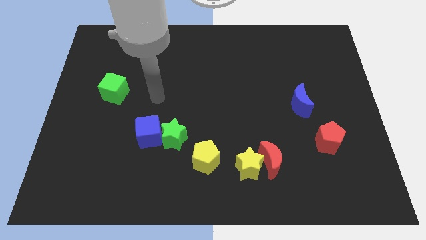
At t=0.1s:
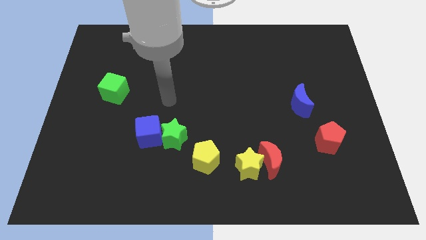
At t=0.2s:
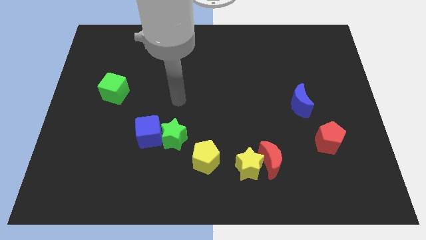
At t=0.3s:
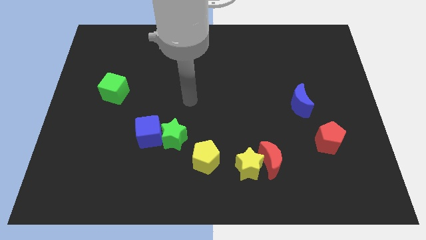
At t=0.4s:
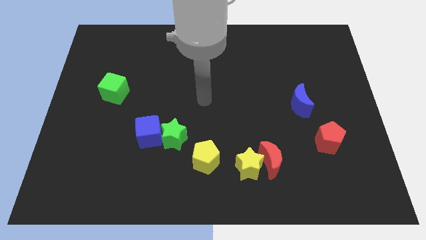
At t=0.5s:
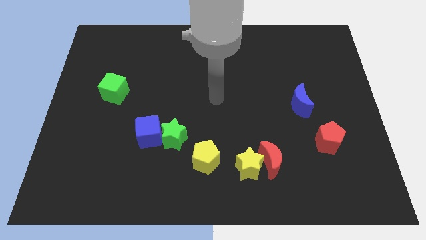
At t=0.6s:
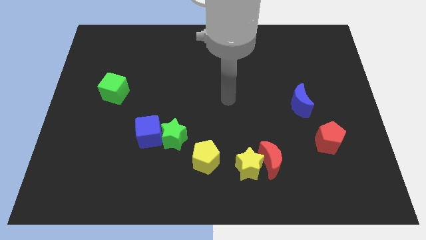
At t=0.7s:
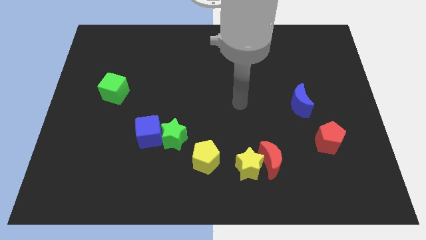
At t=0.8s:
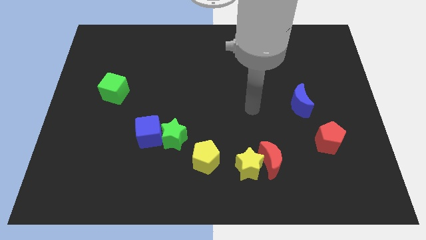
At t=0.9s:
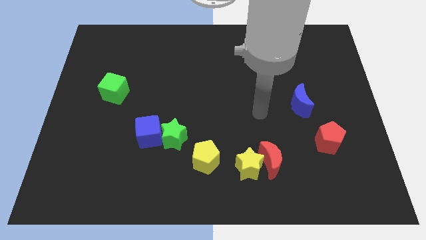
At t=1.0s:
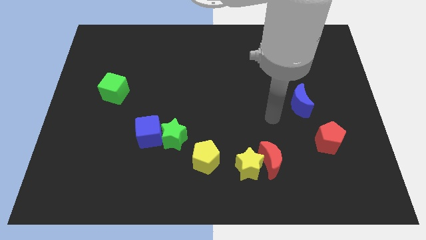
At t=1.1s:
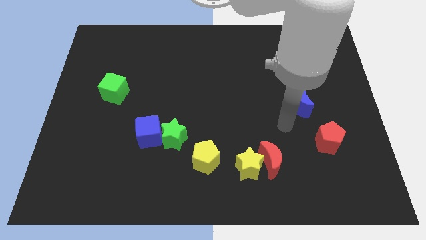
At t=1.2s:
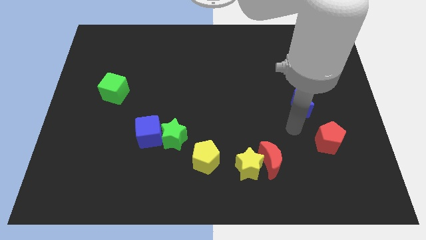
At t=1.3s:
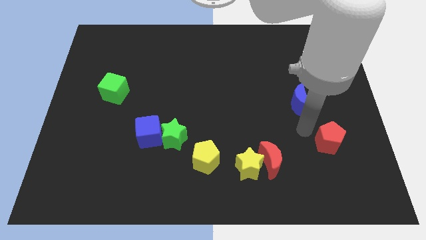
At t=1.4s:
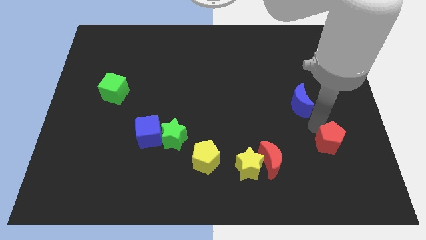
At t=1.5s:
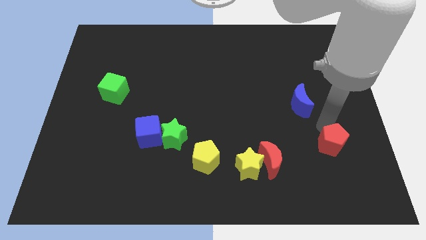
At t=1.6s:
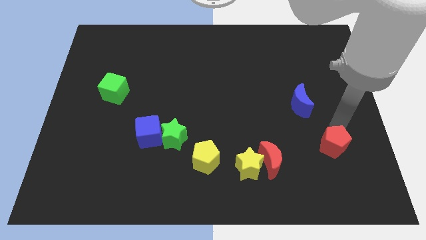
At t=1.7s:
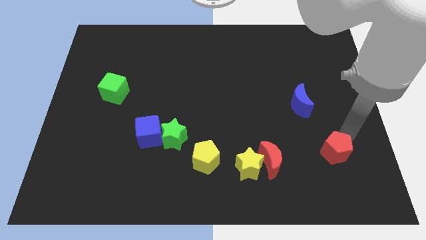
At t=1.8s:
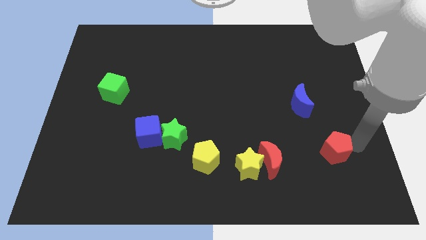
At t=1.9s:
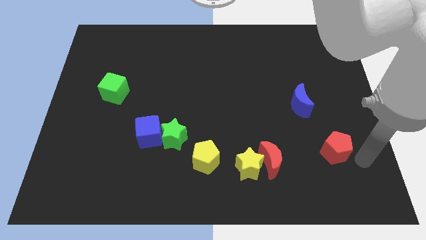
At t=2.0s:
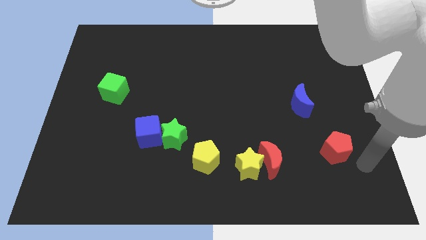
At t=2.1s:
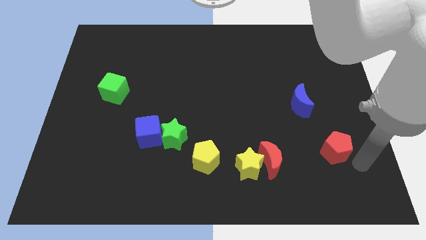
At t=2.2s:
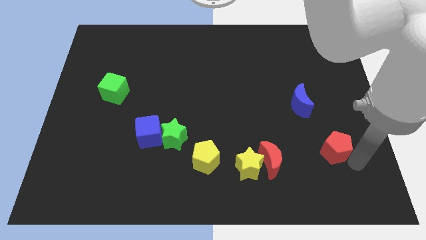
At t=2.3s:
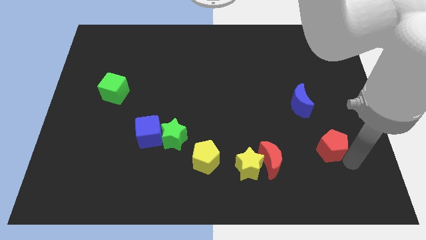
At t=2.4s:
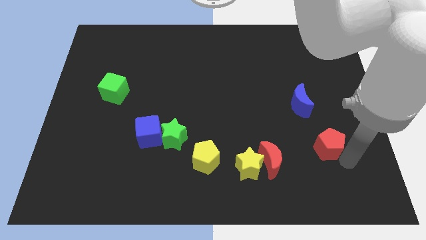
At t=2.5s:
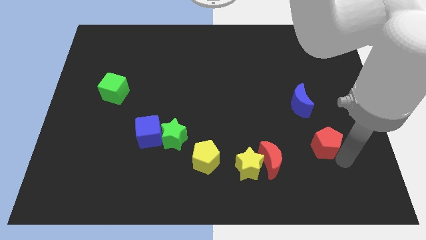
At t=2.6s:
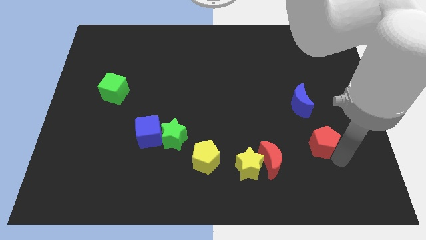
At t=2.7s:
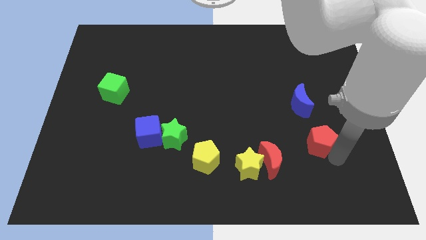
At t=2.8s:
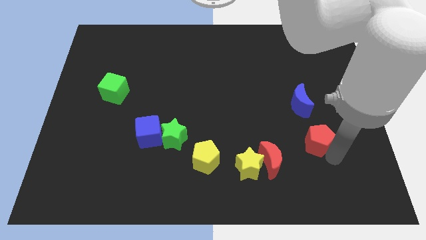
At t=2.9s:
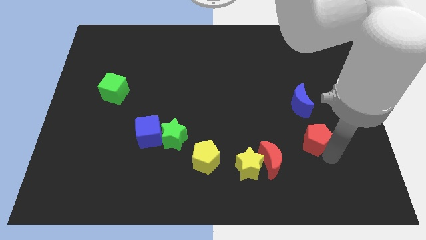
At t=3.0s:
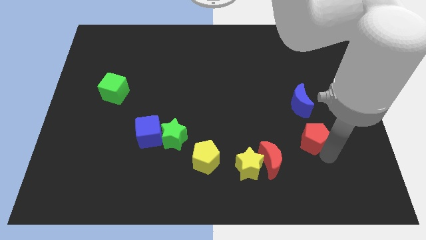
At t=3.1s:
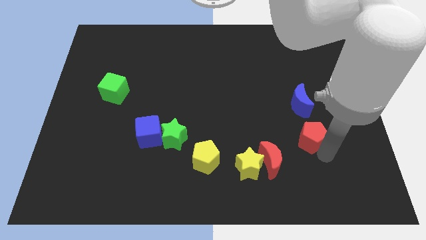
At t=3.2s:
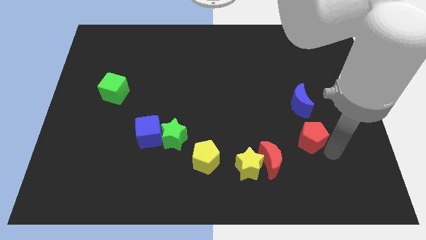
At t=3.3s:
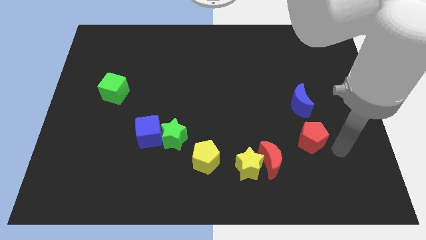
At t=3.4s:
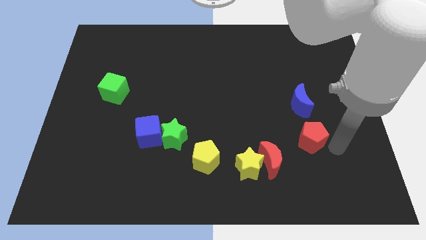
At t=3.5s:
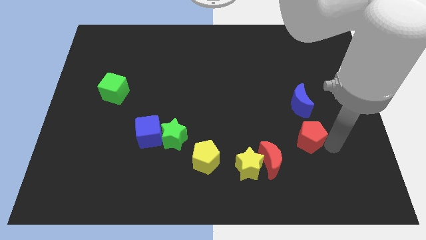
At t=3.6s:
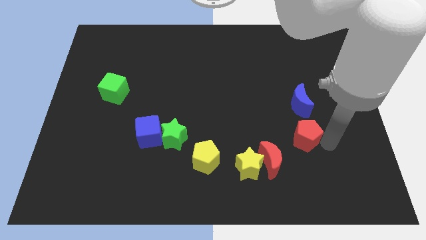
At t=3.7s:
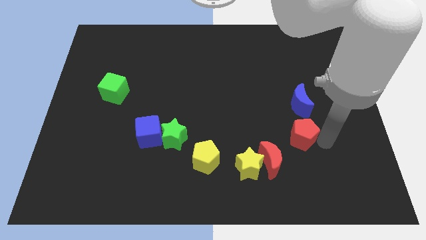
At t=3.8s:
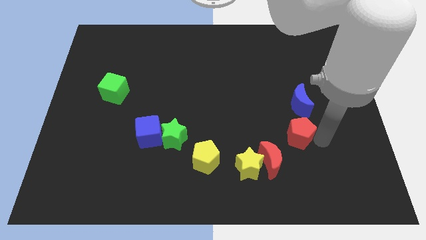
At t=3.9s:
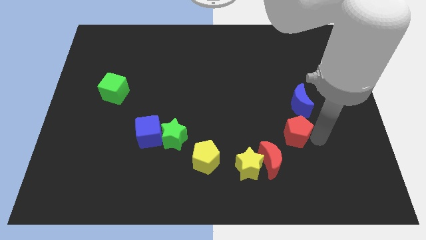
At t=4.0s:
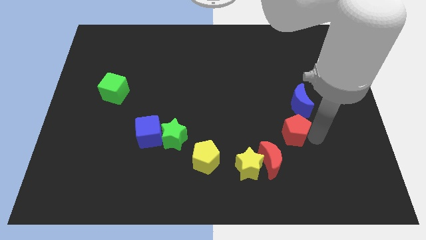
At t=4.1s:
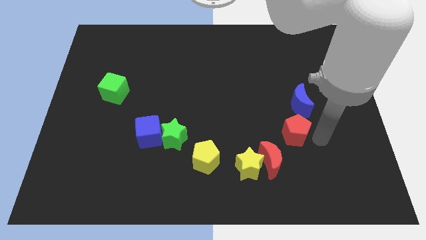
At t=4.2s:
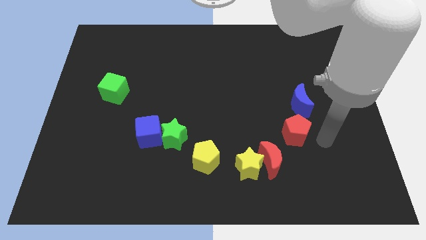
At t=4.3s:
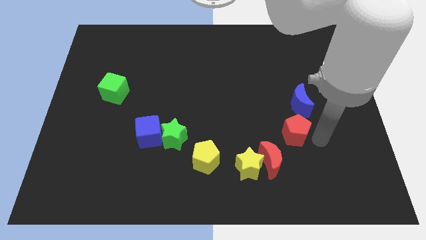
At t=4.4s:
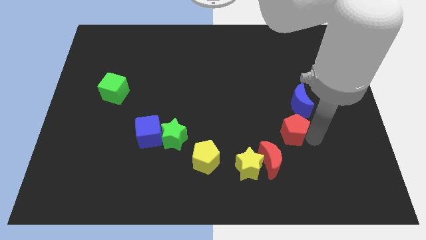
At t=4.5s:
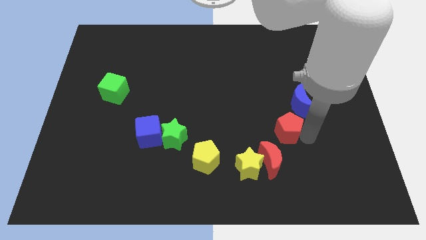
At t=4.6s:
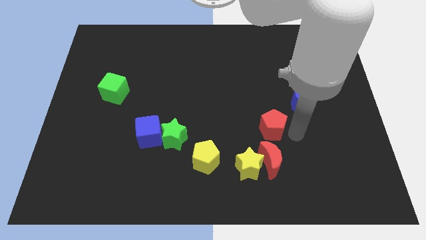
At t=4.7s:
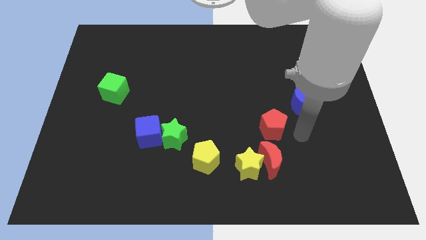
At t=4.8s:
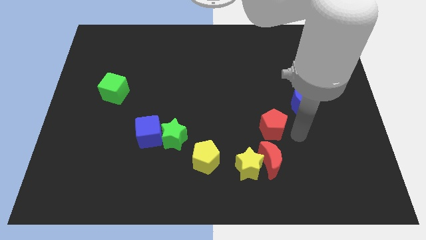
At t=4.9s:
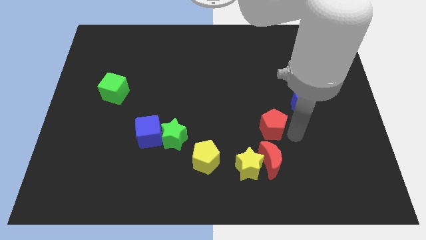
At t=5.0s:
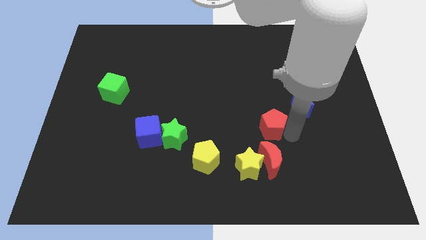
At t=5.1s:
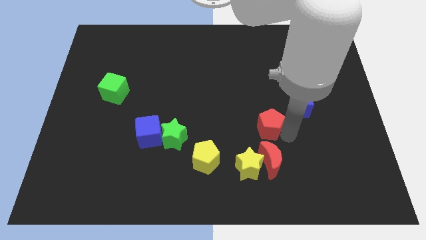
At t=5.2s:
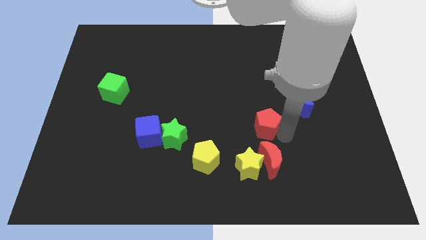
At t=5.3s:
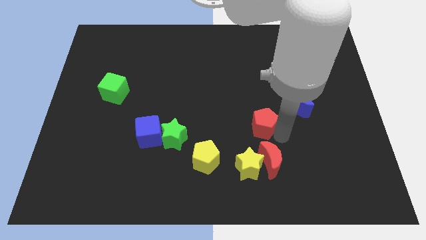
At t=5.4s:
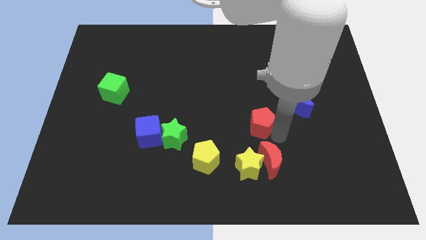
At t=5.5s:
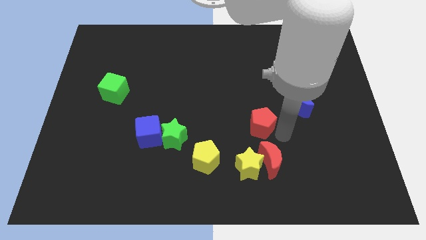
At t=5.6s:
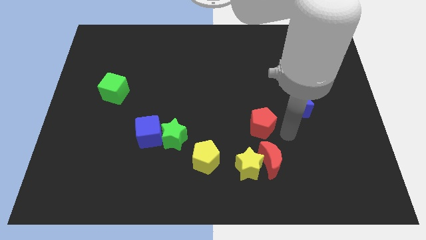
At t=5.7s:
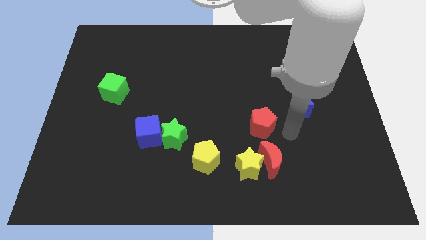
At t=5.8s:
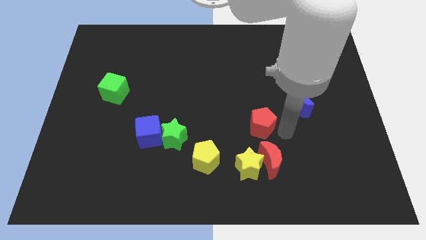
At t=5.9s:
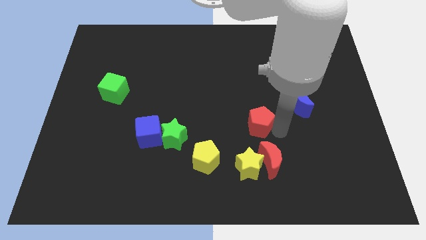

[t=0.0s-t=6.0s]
push the red pentagon to the middle
